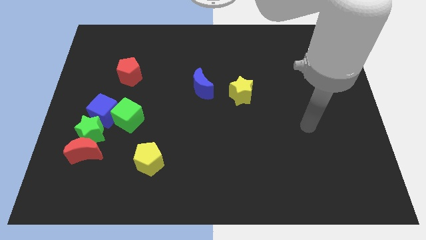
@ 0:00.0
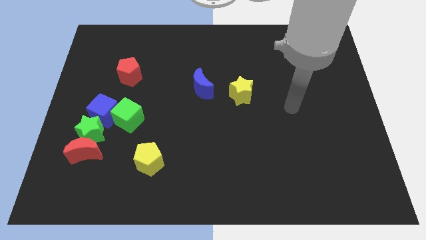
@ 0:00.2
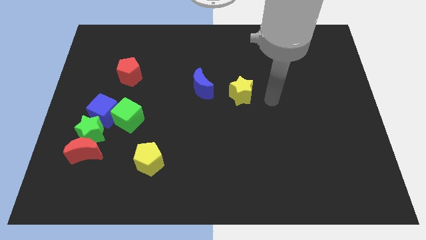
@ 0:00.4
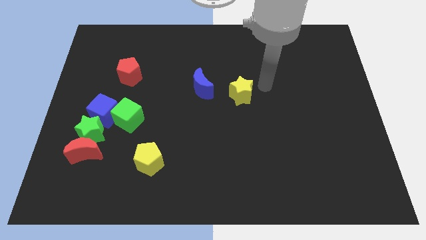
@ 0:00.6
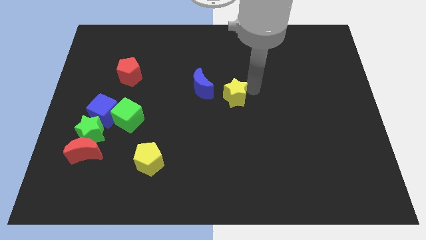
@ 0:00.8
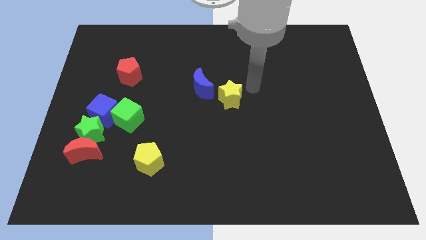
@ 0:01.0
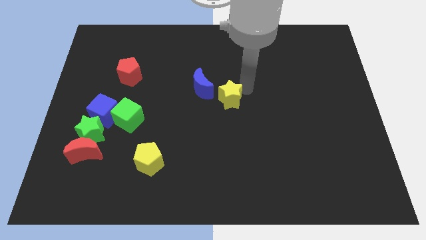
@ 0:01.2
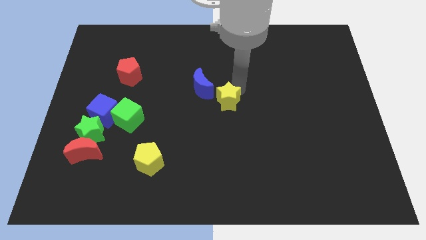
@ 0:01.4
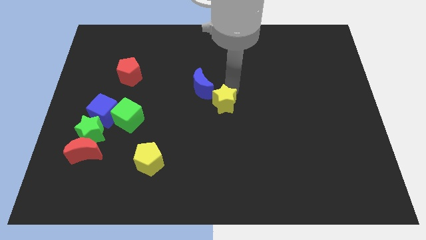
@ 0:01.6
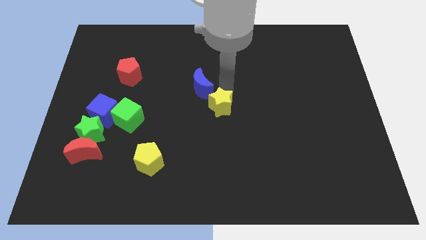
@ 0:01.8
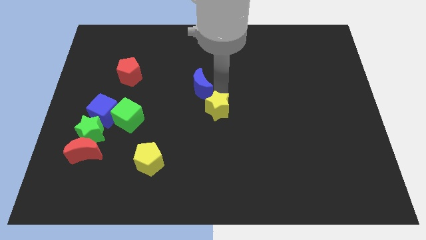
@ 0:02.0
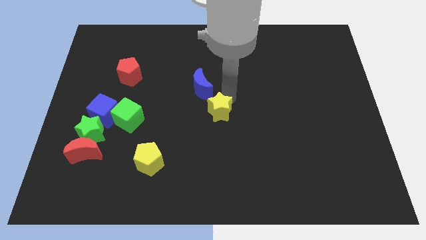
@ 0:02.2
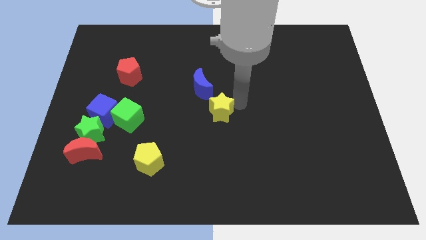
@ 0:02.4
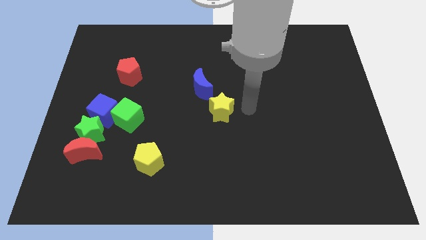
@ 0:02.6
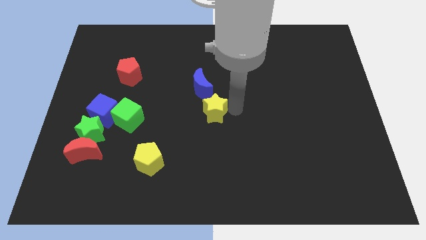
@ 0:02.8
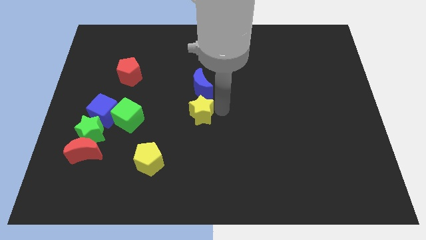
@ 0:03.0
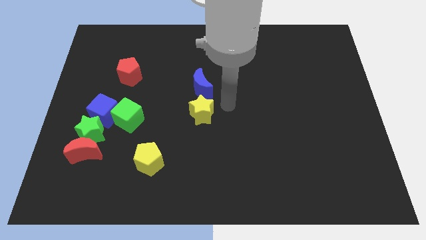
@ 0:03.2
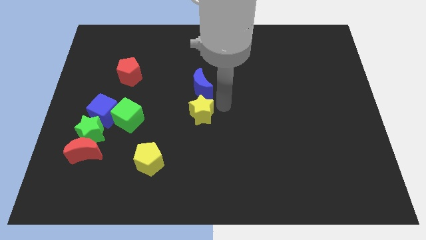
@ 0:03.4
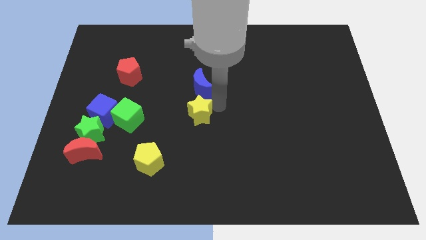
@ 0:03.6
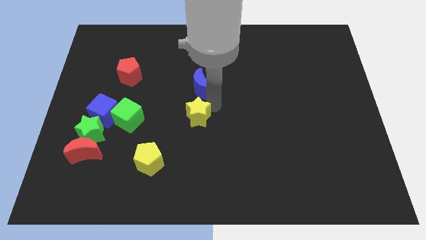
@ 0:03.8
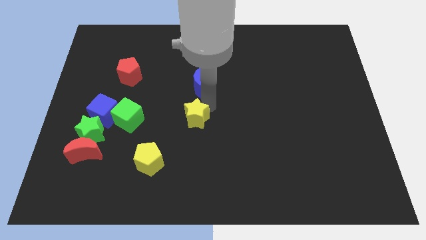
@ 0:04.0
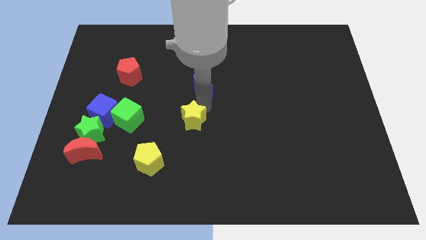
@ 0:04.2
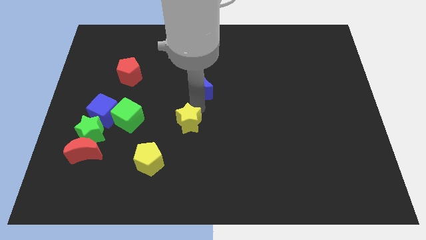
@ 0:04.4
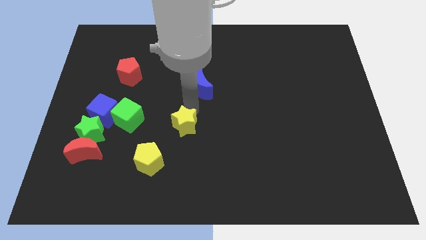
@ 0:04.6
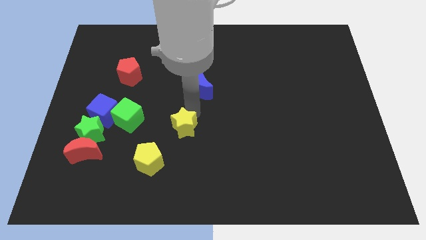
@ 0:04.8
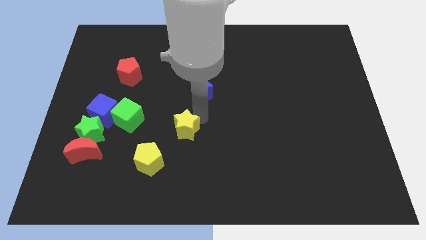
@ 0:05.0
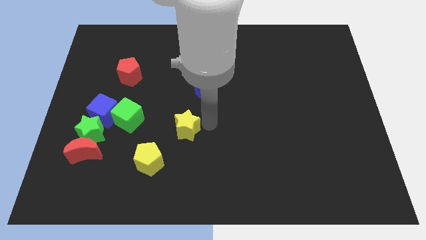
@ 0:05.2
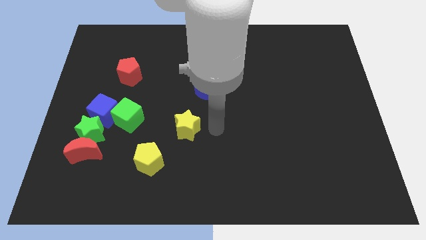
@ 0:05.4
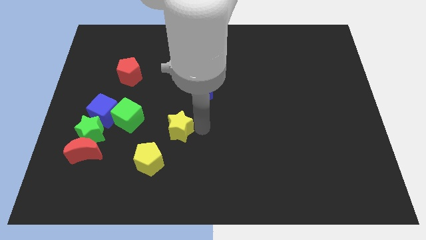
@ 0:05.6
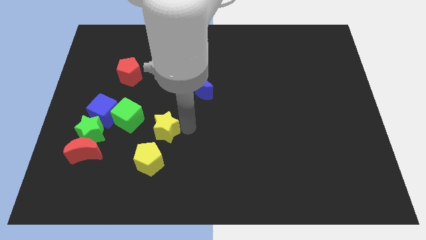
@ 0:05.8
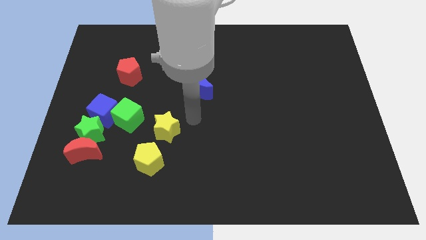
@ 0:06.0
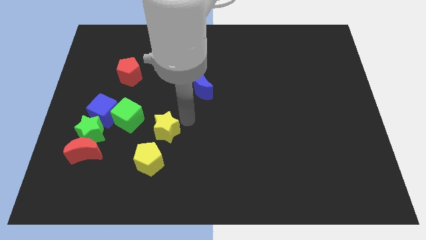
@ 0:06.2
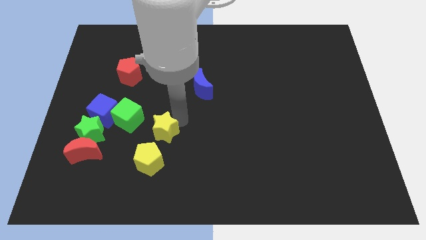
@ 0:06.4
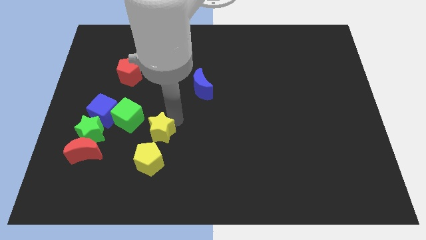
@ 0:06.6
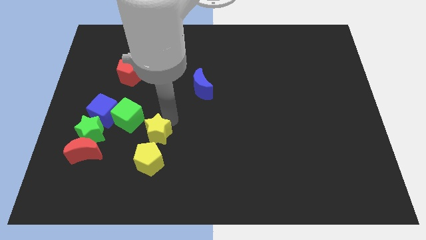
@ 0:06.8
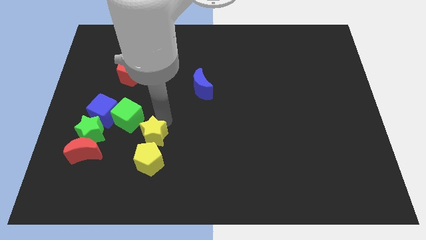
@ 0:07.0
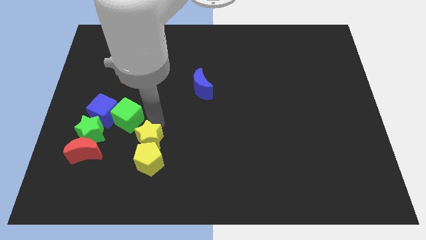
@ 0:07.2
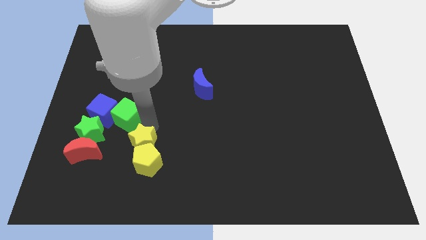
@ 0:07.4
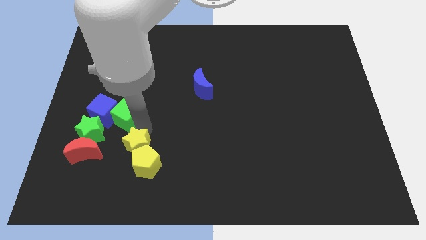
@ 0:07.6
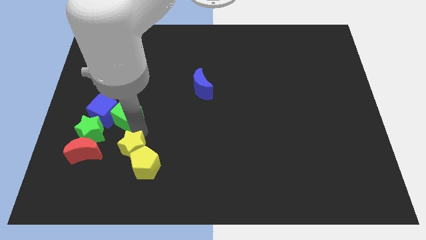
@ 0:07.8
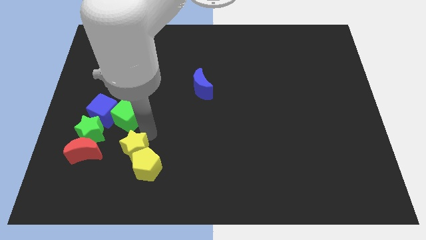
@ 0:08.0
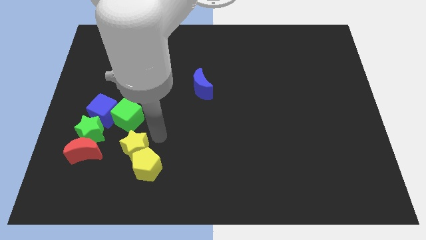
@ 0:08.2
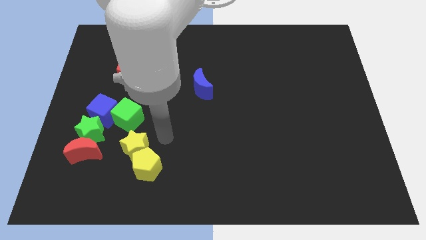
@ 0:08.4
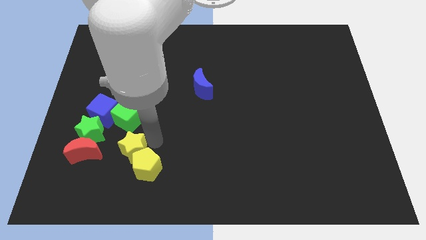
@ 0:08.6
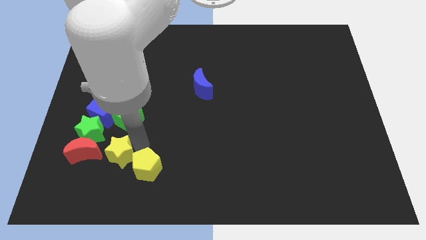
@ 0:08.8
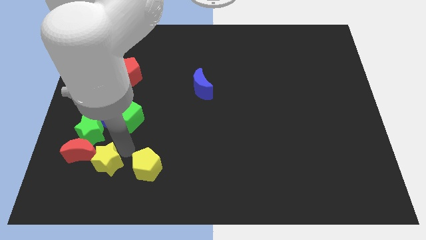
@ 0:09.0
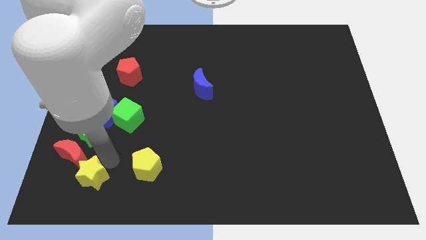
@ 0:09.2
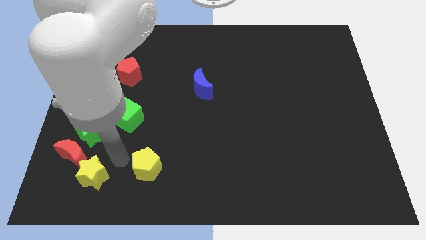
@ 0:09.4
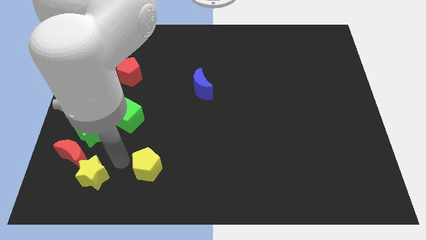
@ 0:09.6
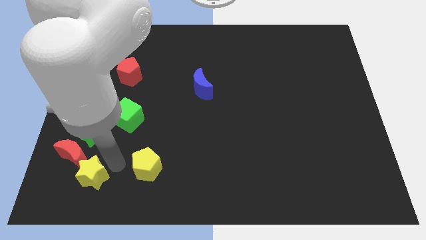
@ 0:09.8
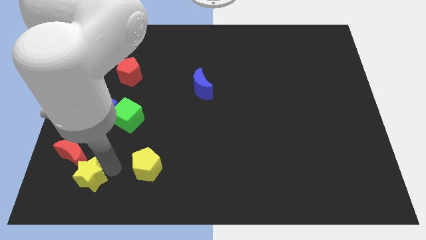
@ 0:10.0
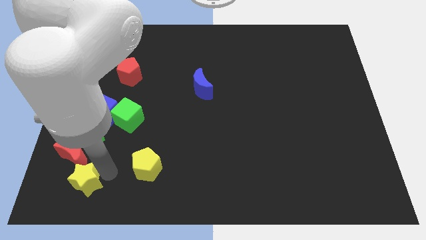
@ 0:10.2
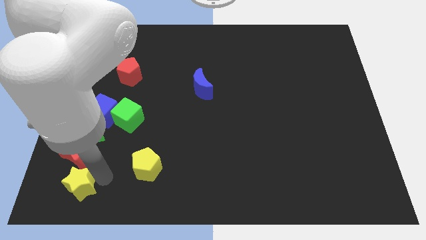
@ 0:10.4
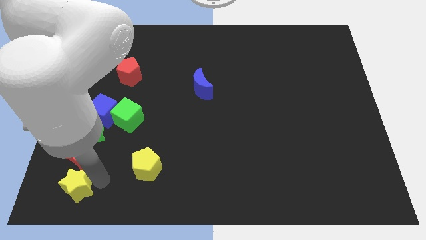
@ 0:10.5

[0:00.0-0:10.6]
push the yellow star to the bottom left of the board

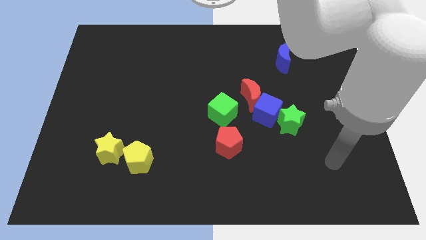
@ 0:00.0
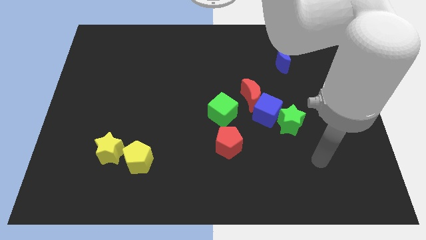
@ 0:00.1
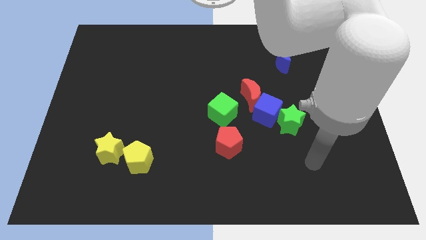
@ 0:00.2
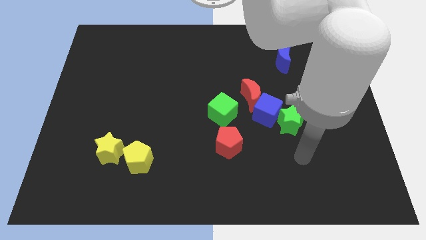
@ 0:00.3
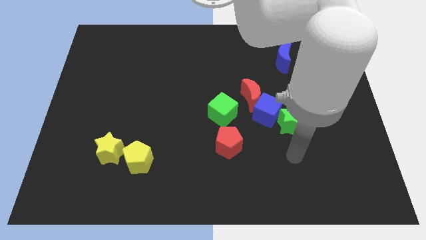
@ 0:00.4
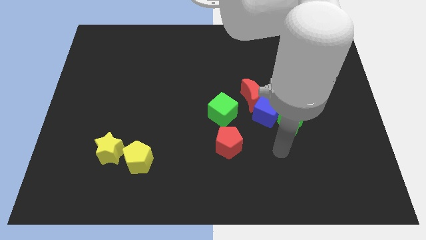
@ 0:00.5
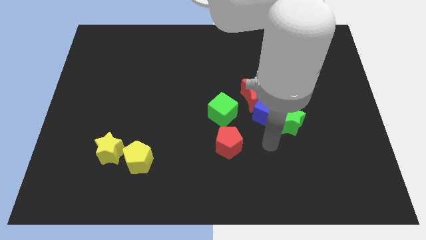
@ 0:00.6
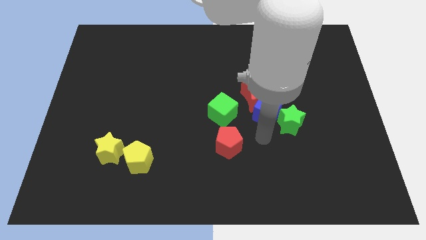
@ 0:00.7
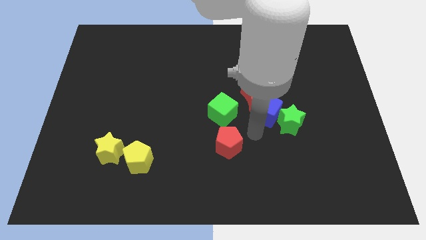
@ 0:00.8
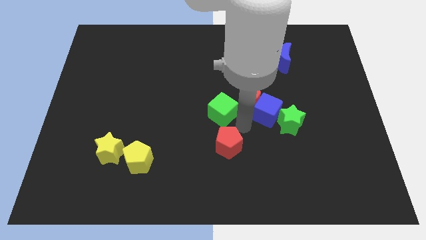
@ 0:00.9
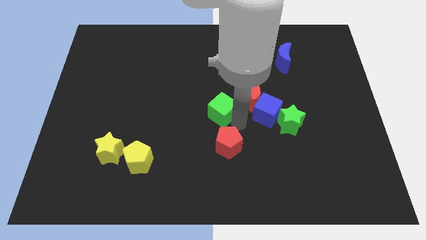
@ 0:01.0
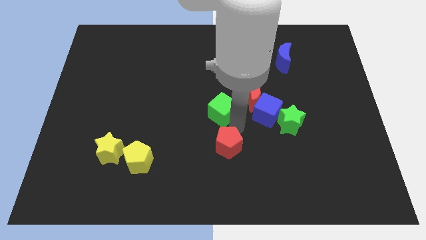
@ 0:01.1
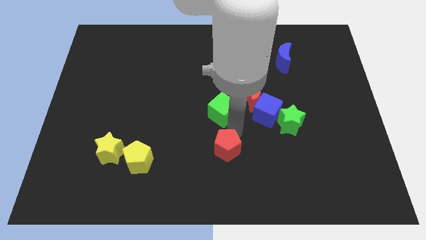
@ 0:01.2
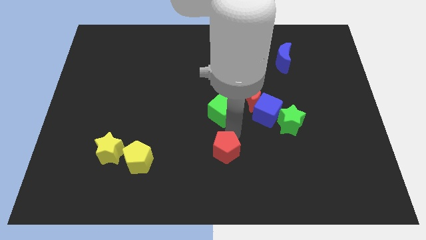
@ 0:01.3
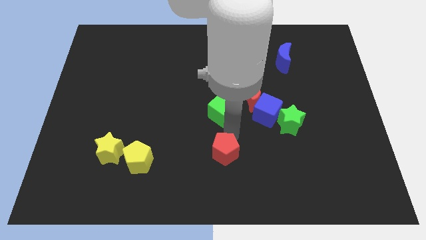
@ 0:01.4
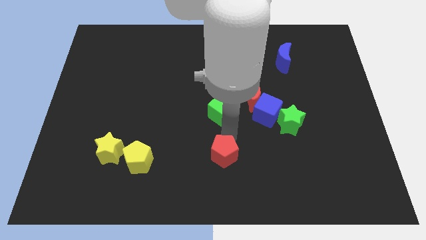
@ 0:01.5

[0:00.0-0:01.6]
push the red pentagon to the bottom side

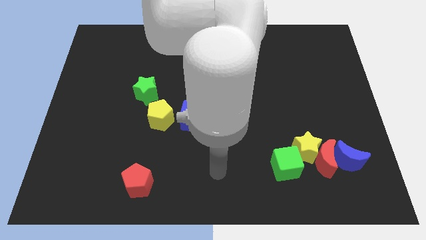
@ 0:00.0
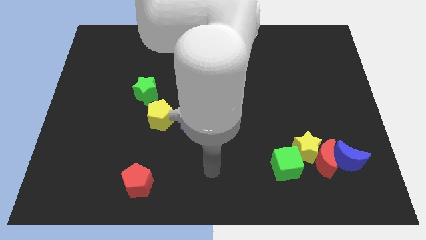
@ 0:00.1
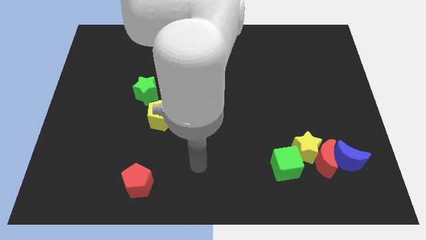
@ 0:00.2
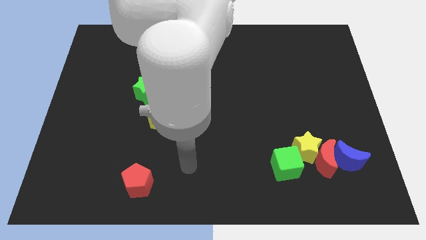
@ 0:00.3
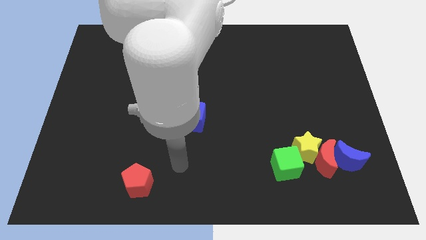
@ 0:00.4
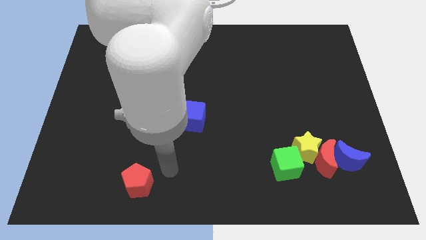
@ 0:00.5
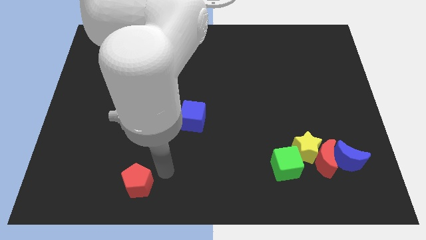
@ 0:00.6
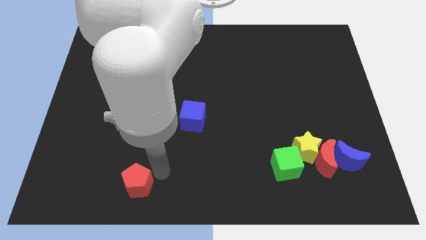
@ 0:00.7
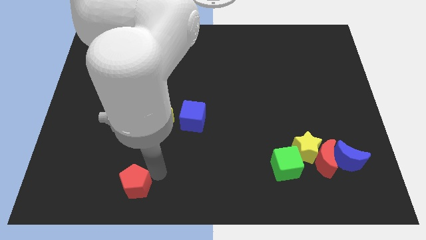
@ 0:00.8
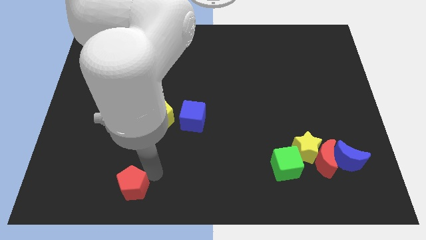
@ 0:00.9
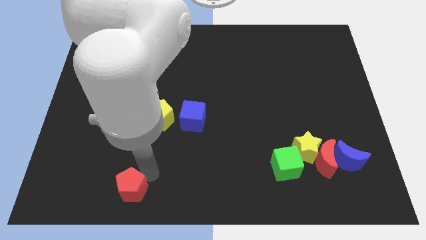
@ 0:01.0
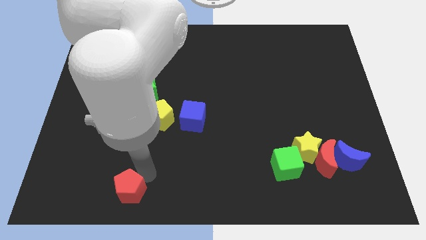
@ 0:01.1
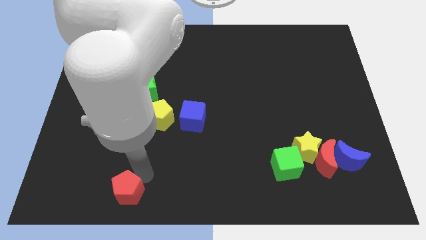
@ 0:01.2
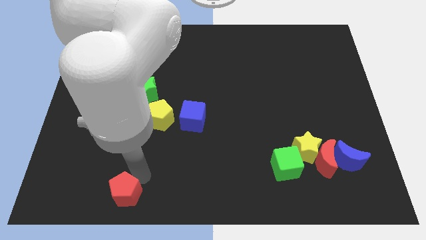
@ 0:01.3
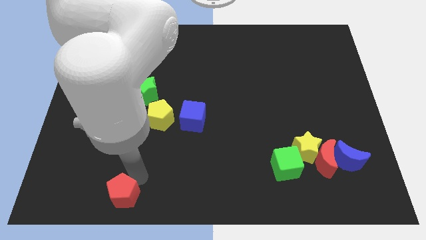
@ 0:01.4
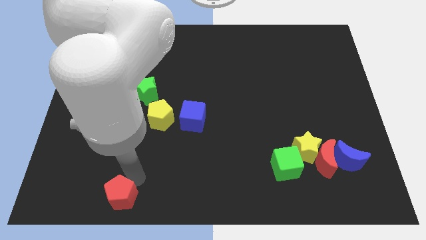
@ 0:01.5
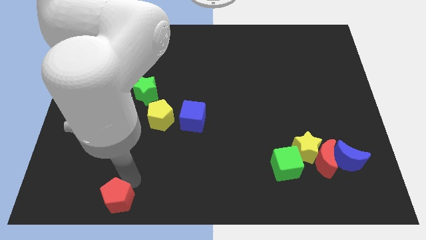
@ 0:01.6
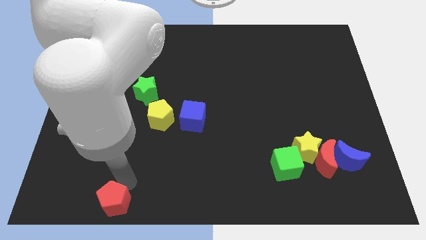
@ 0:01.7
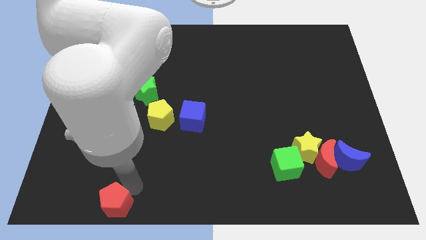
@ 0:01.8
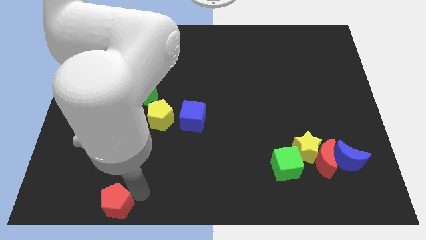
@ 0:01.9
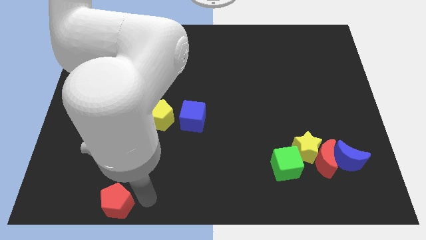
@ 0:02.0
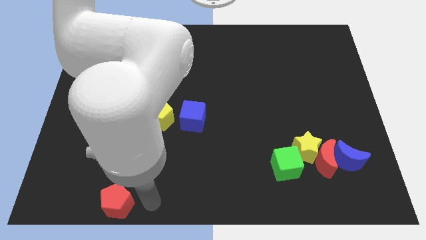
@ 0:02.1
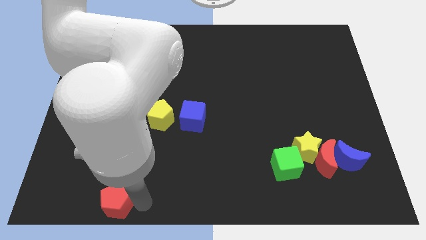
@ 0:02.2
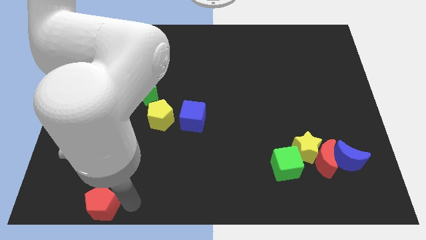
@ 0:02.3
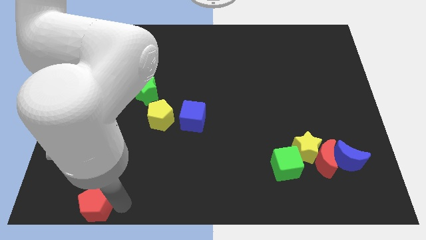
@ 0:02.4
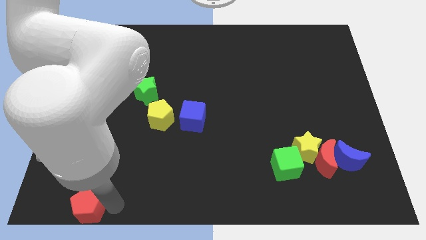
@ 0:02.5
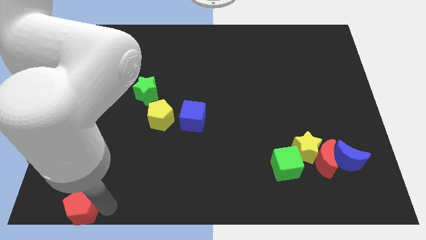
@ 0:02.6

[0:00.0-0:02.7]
push the red pentagon to the bottom left corner
